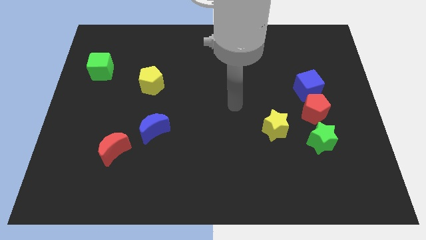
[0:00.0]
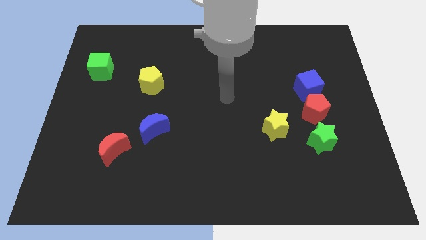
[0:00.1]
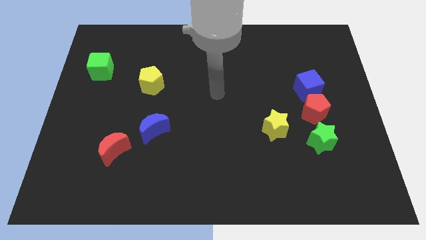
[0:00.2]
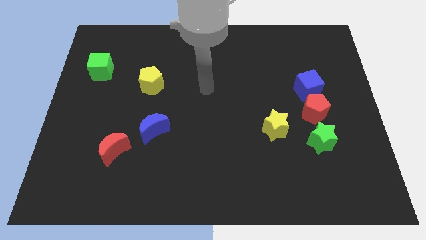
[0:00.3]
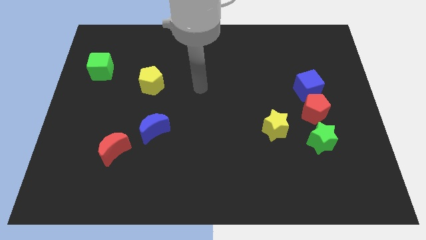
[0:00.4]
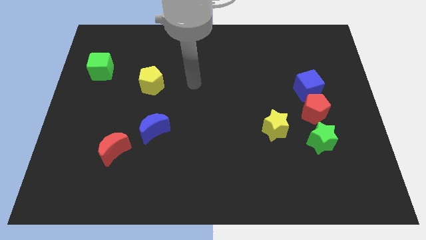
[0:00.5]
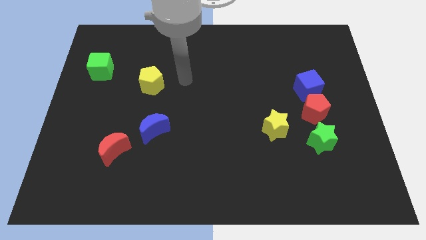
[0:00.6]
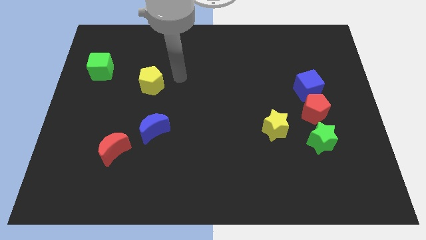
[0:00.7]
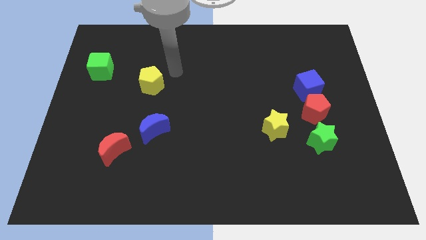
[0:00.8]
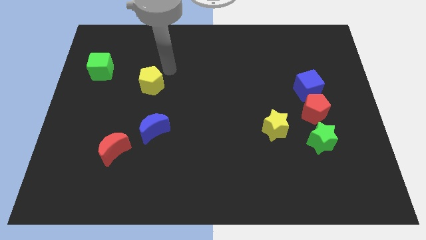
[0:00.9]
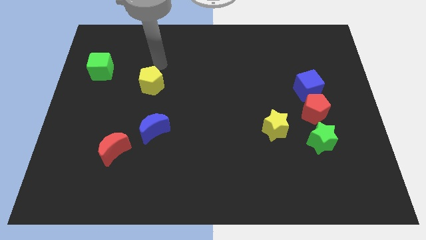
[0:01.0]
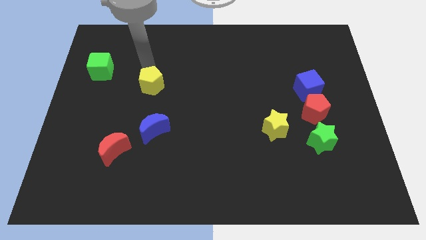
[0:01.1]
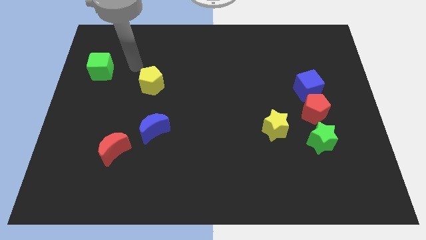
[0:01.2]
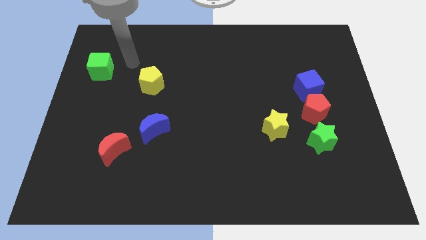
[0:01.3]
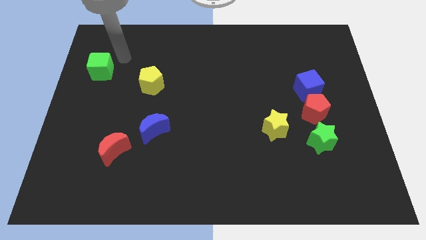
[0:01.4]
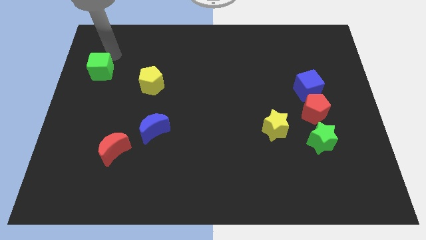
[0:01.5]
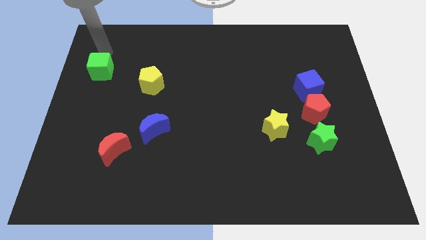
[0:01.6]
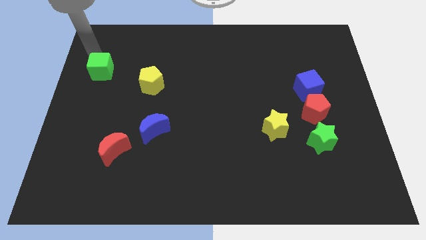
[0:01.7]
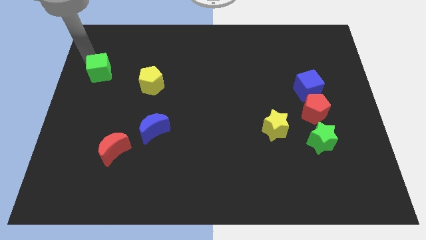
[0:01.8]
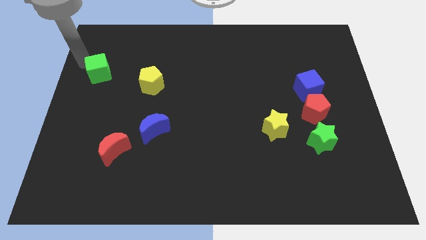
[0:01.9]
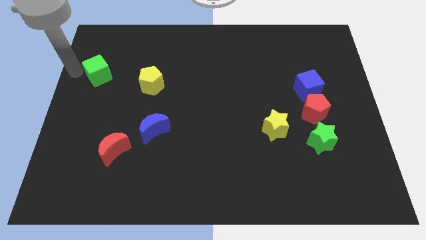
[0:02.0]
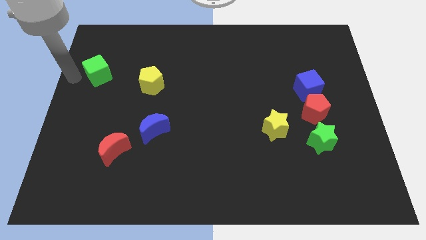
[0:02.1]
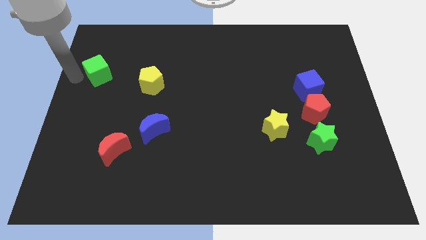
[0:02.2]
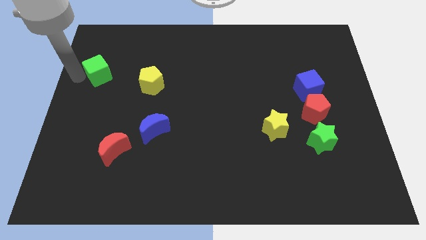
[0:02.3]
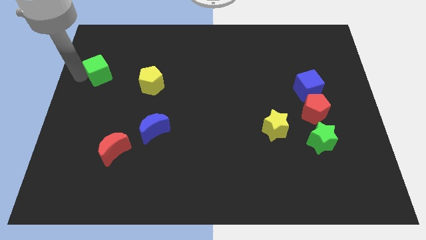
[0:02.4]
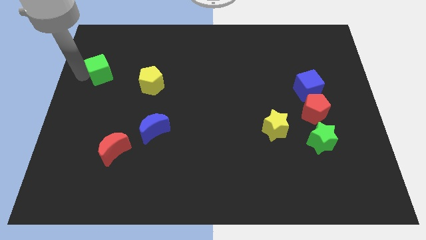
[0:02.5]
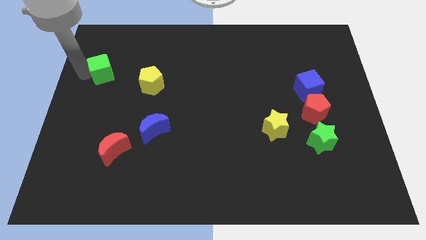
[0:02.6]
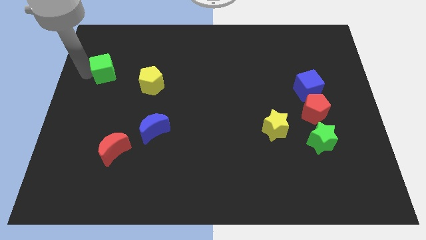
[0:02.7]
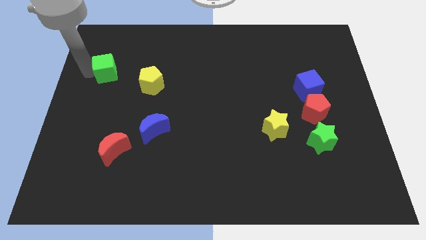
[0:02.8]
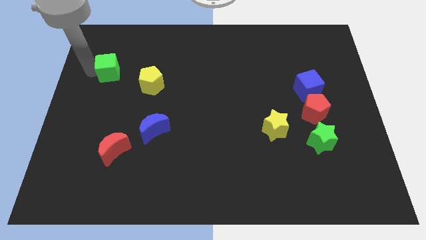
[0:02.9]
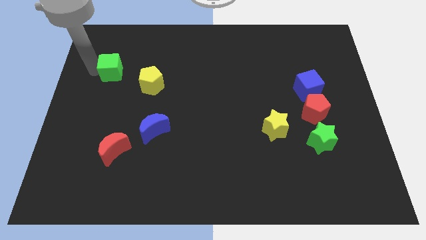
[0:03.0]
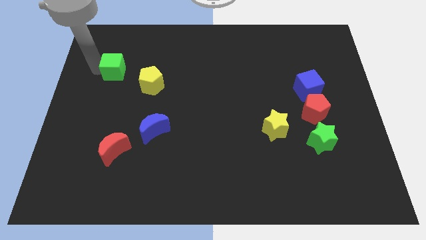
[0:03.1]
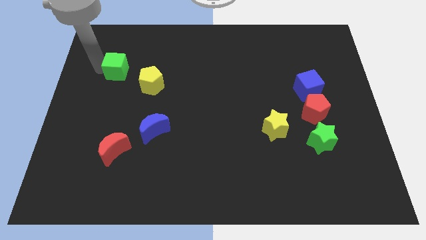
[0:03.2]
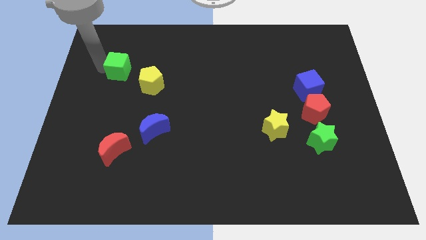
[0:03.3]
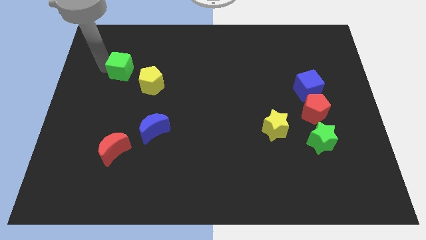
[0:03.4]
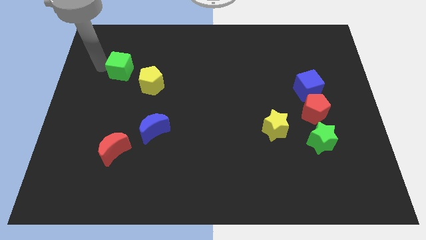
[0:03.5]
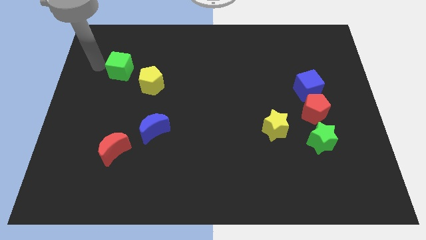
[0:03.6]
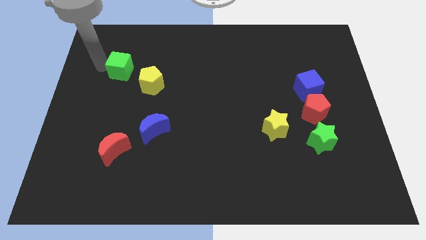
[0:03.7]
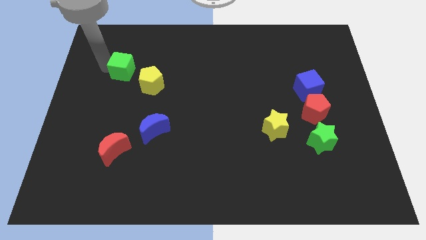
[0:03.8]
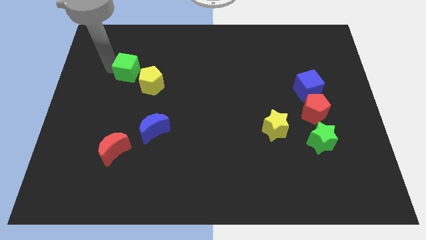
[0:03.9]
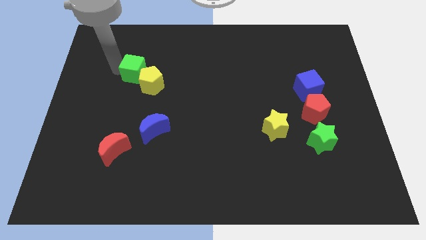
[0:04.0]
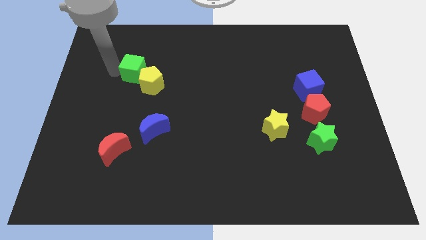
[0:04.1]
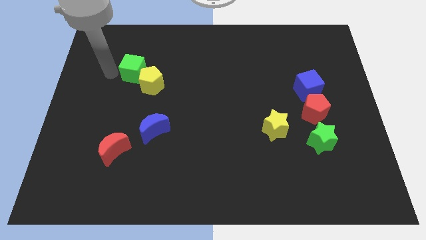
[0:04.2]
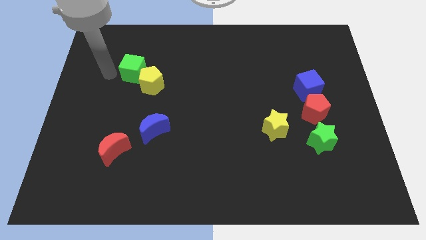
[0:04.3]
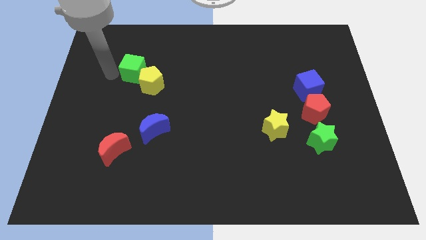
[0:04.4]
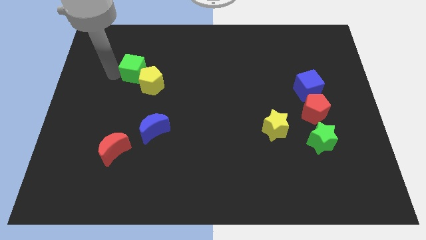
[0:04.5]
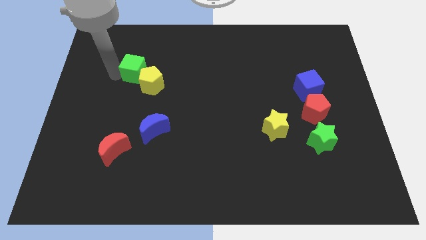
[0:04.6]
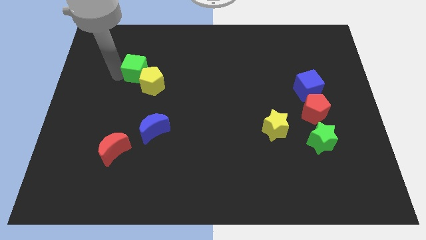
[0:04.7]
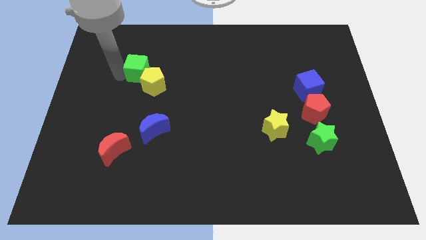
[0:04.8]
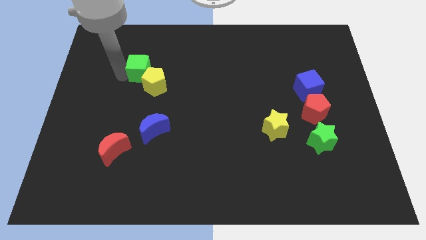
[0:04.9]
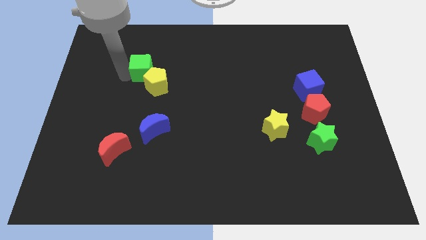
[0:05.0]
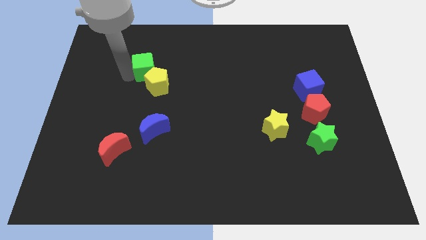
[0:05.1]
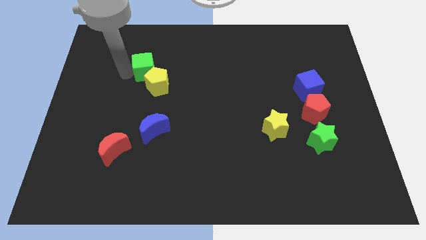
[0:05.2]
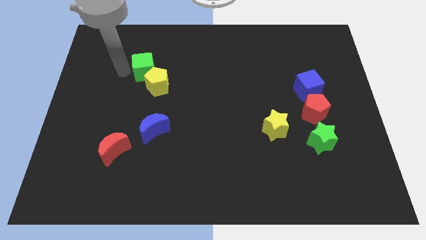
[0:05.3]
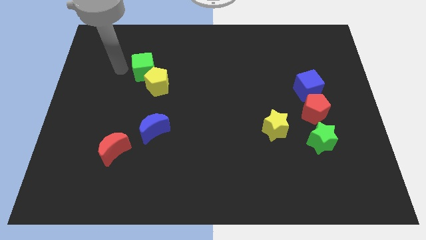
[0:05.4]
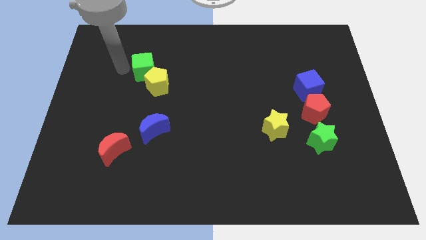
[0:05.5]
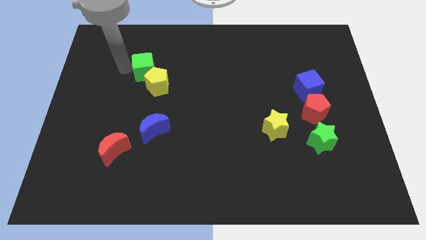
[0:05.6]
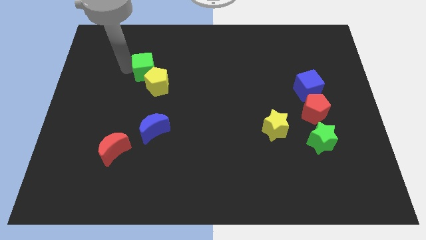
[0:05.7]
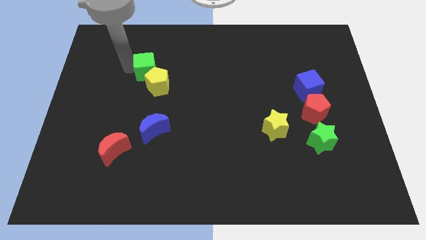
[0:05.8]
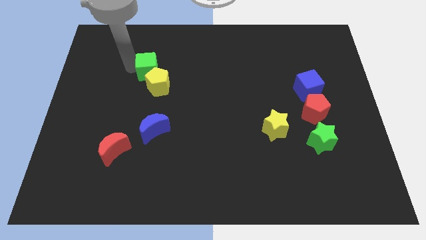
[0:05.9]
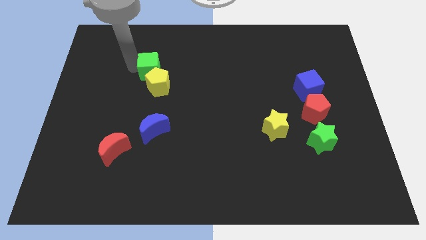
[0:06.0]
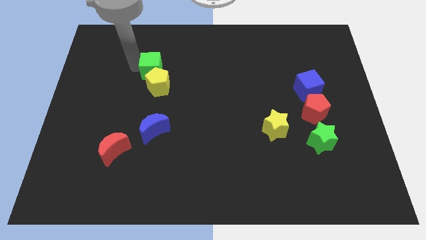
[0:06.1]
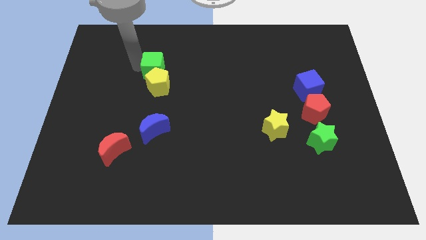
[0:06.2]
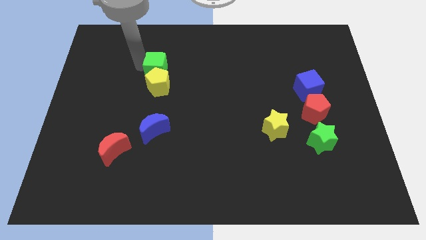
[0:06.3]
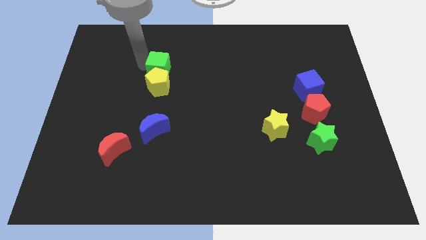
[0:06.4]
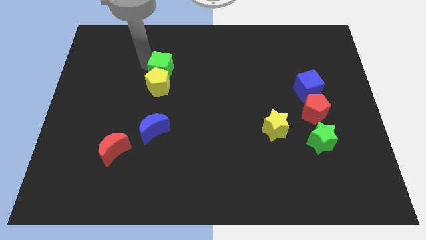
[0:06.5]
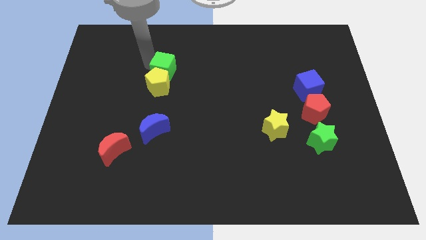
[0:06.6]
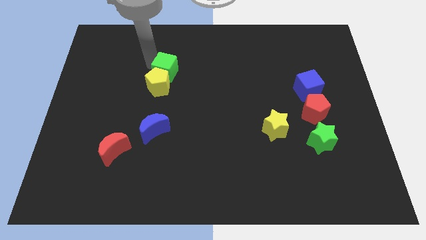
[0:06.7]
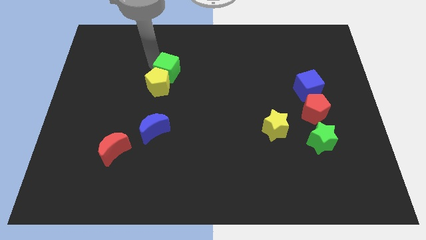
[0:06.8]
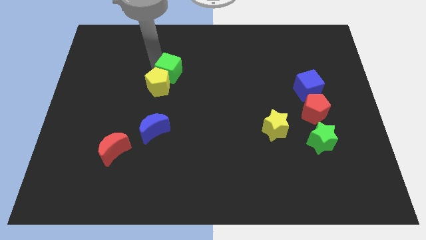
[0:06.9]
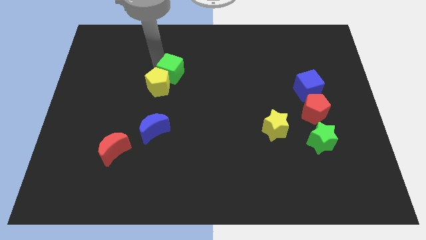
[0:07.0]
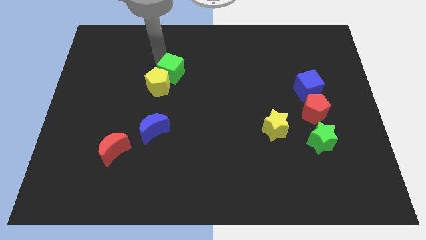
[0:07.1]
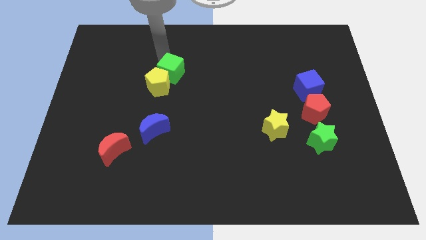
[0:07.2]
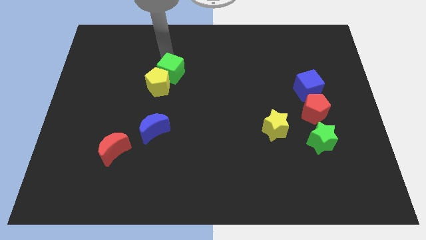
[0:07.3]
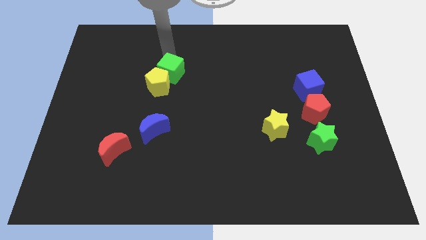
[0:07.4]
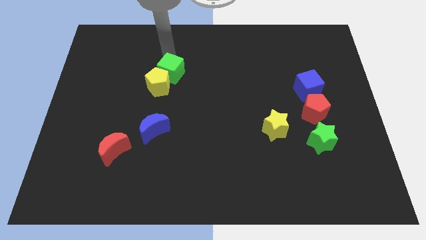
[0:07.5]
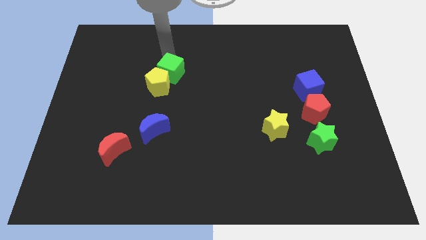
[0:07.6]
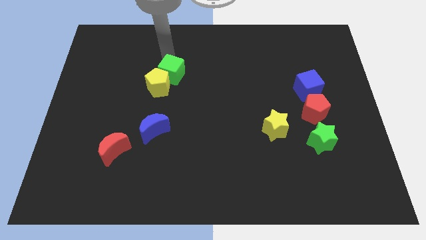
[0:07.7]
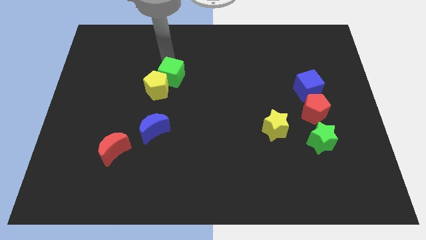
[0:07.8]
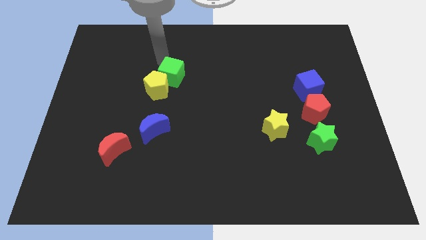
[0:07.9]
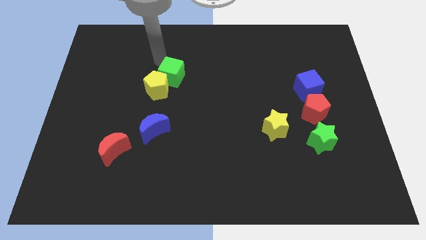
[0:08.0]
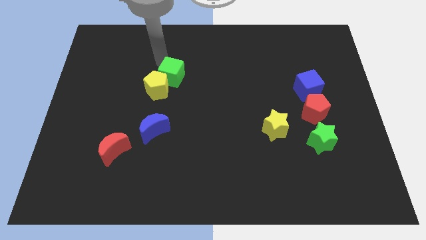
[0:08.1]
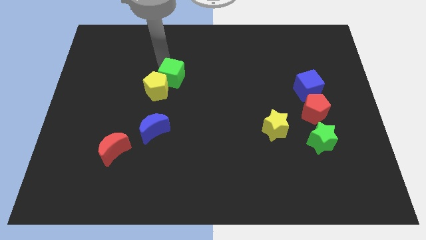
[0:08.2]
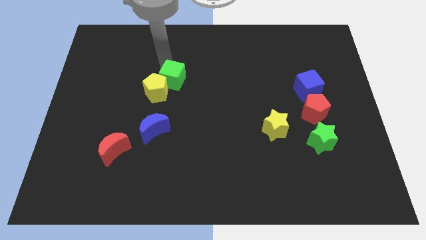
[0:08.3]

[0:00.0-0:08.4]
move the green cube to the center of the board
